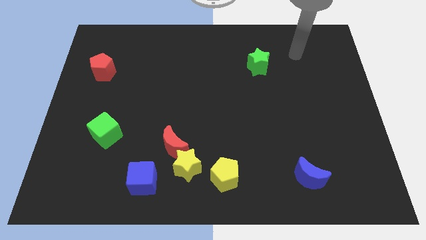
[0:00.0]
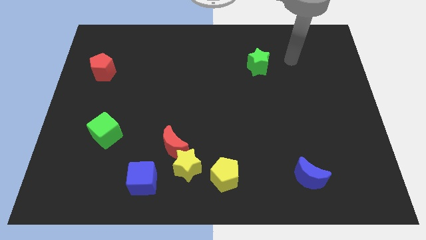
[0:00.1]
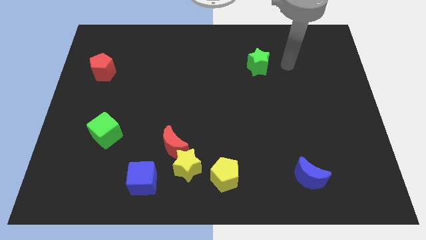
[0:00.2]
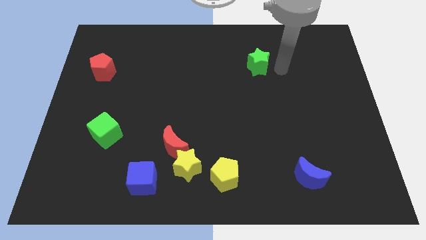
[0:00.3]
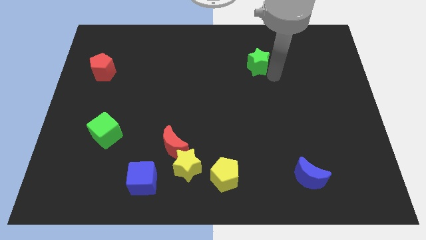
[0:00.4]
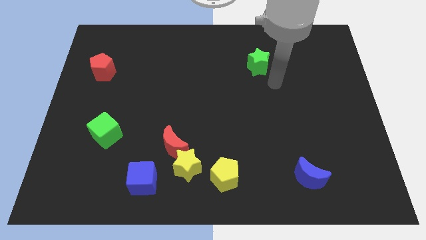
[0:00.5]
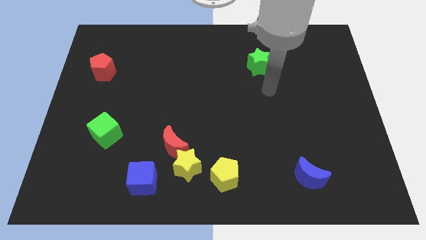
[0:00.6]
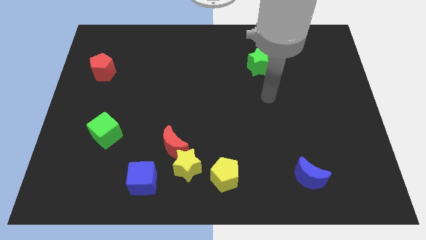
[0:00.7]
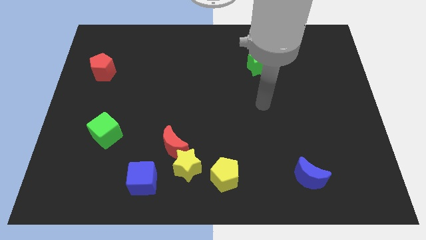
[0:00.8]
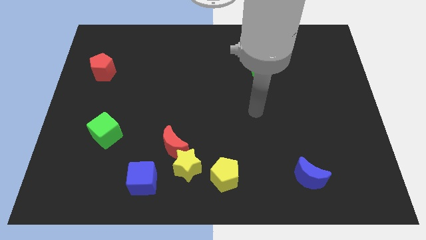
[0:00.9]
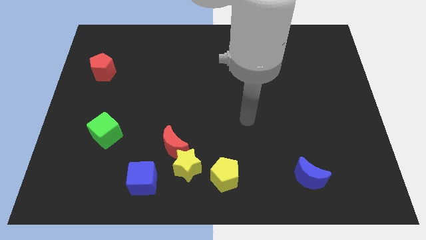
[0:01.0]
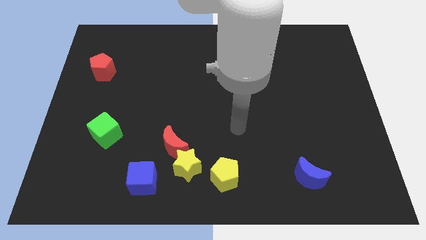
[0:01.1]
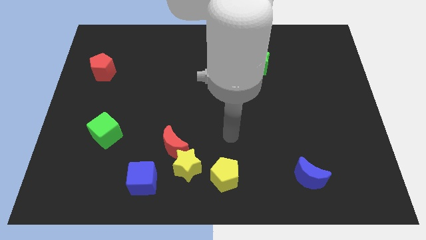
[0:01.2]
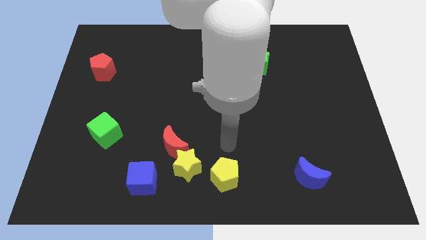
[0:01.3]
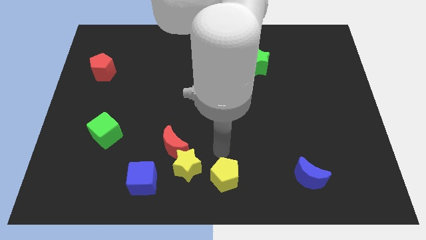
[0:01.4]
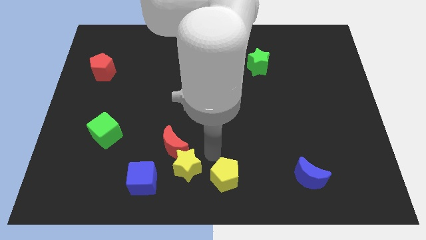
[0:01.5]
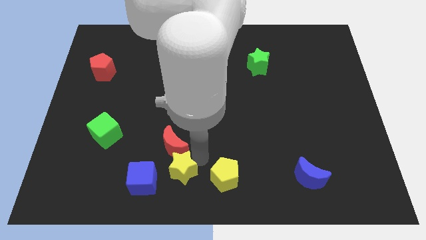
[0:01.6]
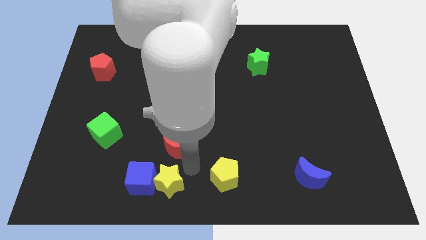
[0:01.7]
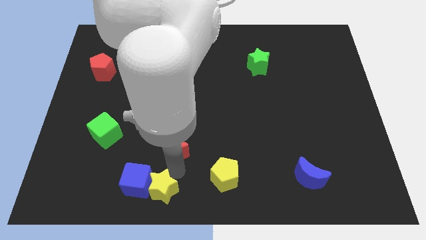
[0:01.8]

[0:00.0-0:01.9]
move the red moon away from the yellow star and blue cube

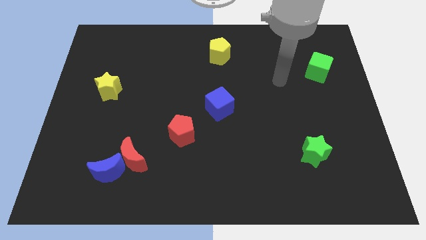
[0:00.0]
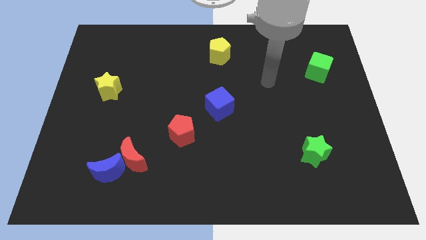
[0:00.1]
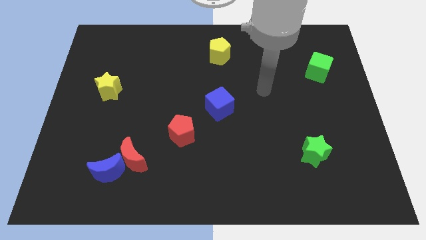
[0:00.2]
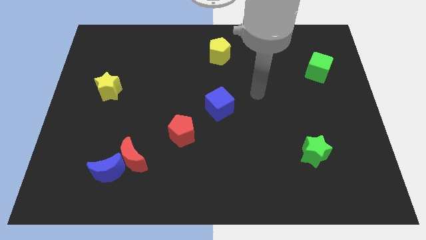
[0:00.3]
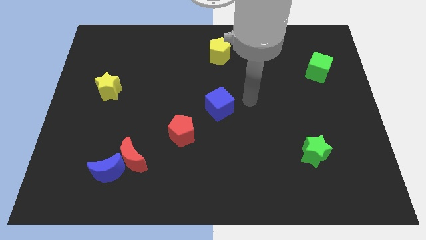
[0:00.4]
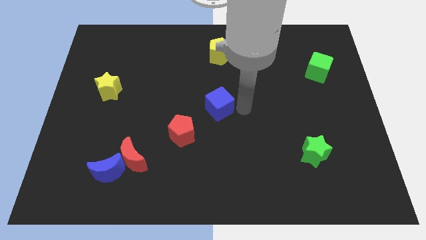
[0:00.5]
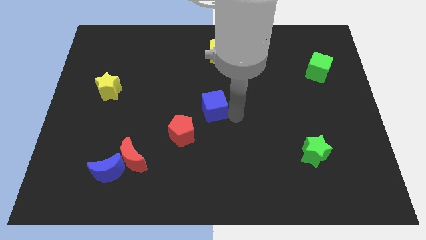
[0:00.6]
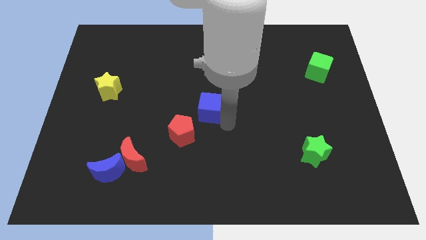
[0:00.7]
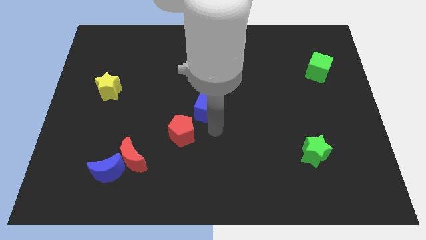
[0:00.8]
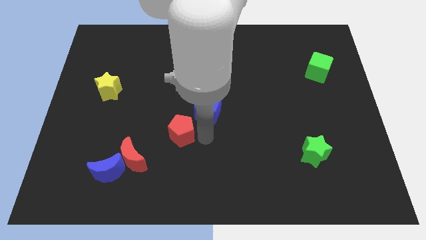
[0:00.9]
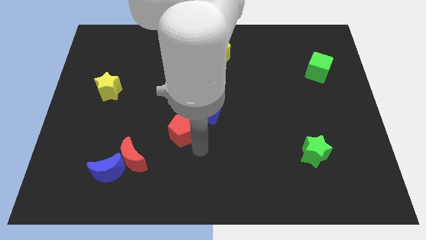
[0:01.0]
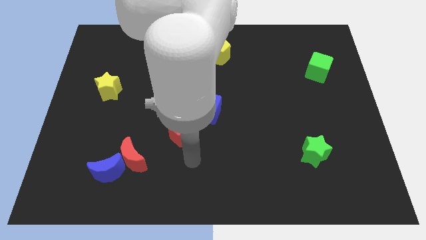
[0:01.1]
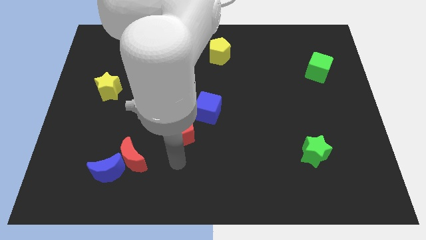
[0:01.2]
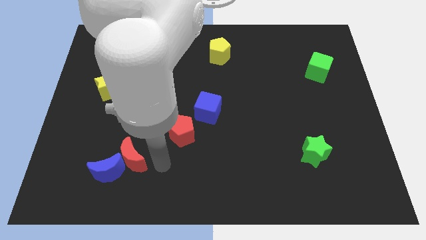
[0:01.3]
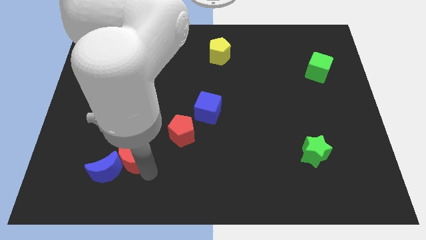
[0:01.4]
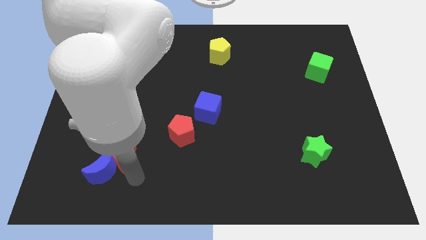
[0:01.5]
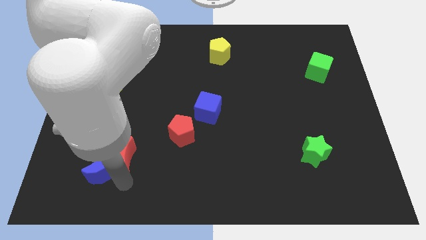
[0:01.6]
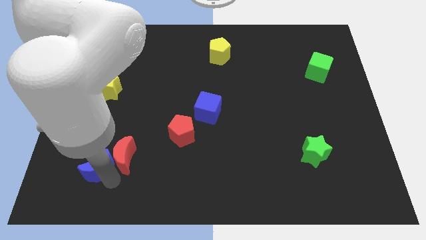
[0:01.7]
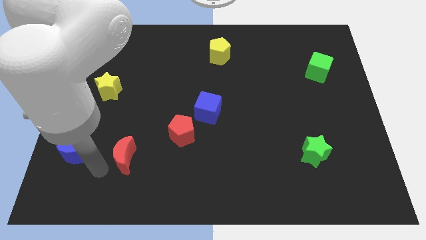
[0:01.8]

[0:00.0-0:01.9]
separate the red moon from the blue moon

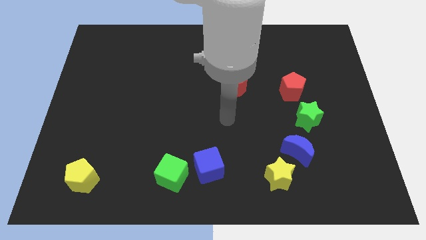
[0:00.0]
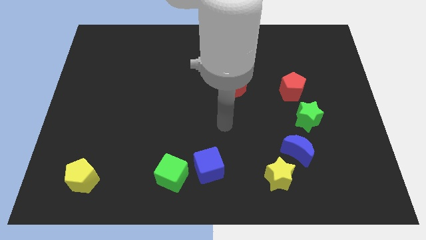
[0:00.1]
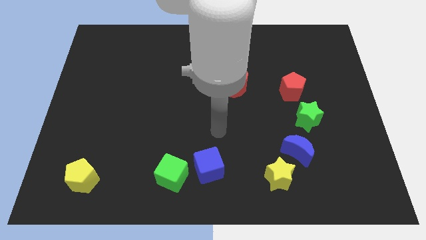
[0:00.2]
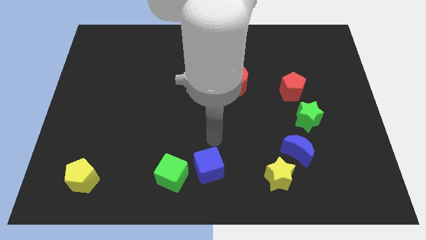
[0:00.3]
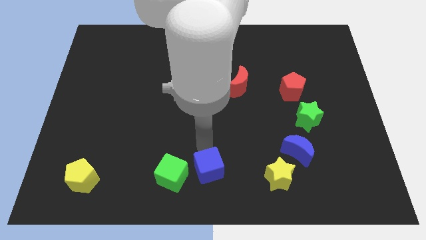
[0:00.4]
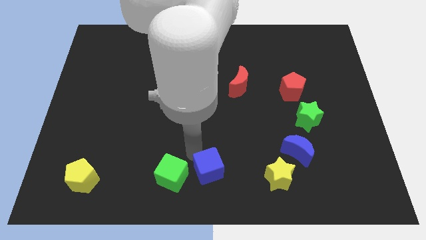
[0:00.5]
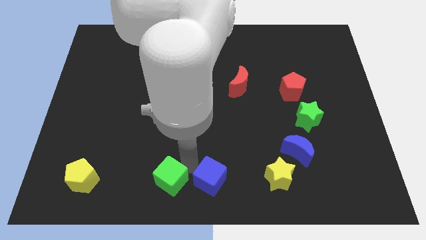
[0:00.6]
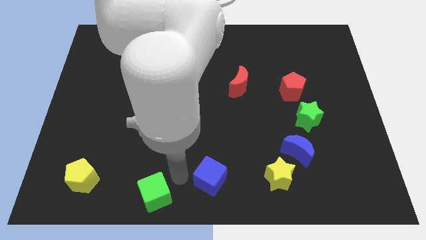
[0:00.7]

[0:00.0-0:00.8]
move the blue cube away from the green cube

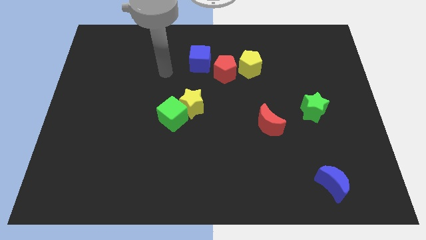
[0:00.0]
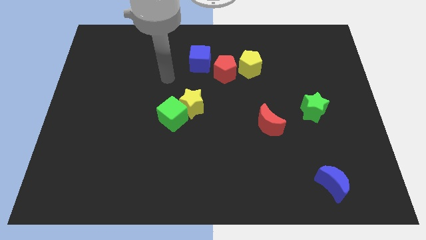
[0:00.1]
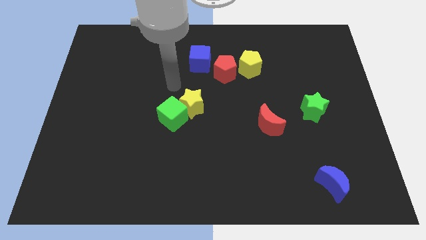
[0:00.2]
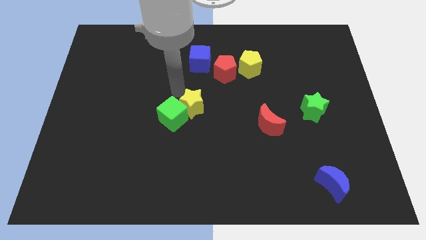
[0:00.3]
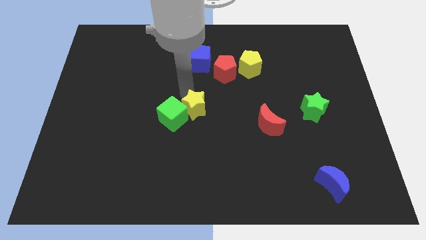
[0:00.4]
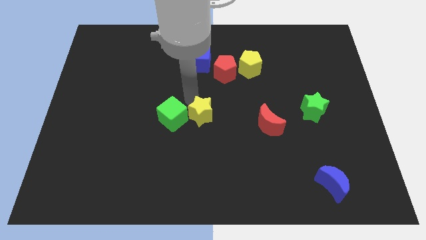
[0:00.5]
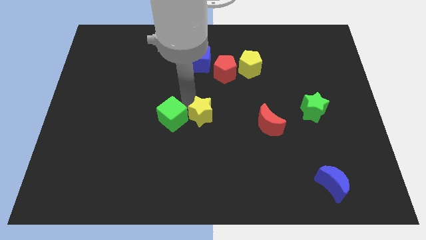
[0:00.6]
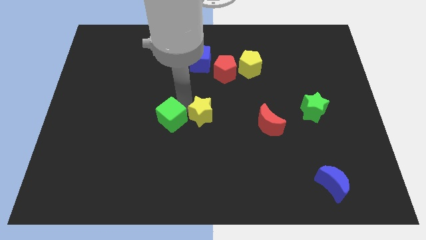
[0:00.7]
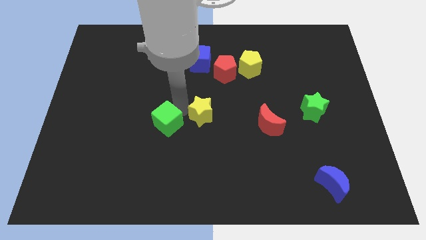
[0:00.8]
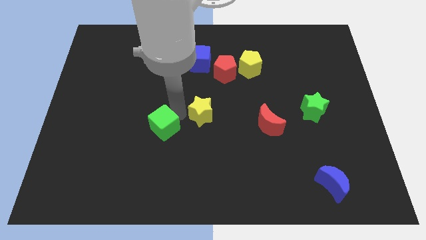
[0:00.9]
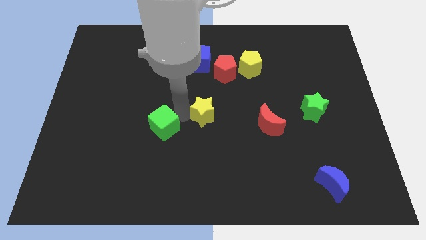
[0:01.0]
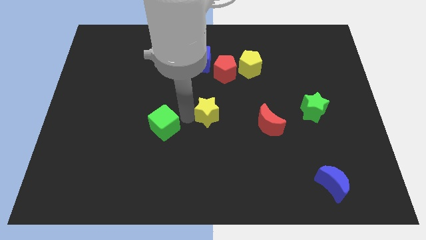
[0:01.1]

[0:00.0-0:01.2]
move the green cube away from the yellow star

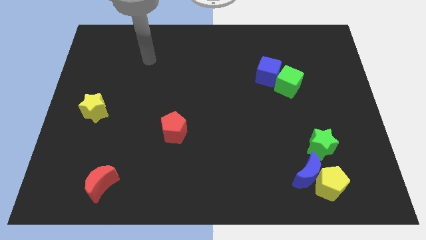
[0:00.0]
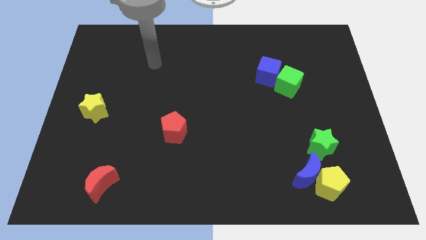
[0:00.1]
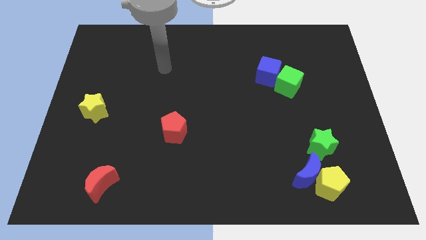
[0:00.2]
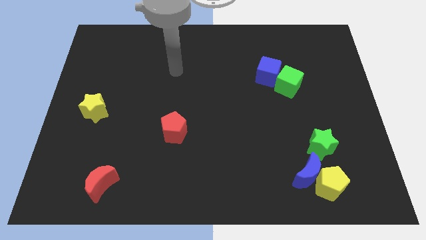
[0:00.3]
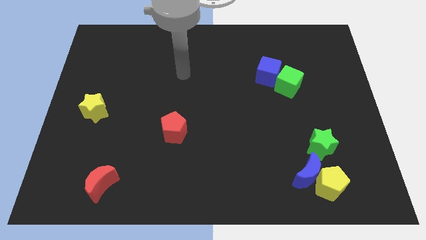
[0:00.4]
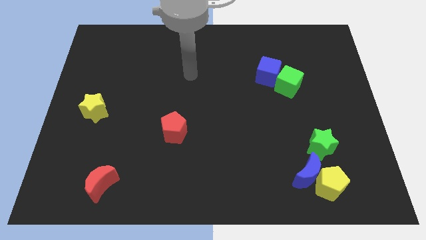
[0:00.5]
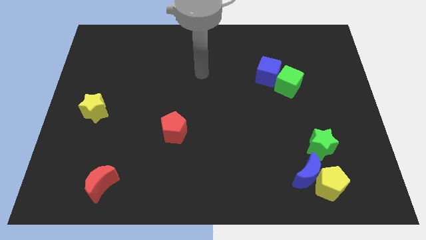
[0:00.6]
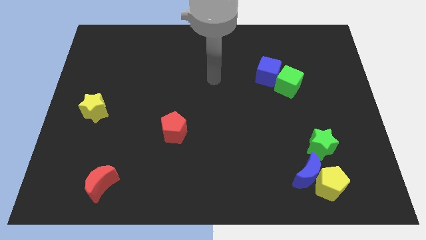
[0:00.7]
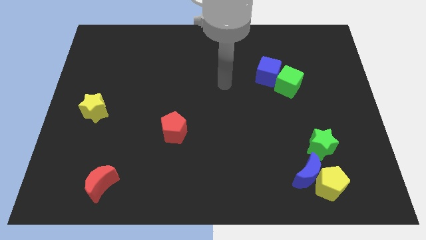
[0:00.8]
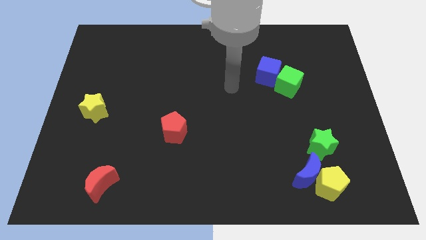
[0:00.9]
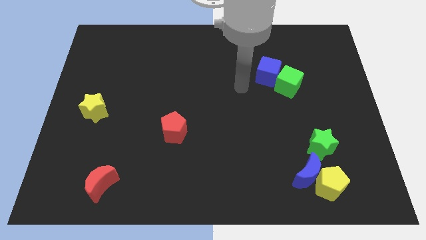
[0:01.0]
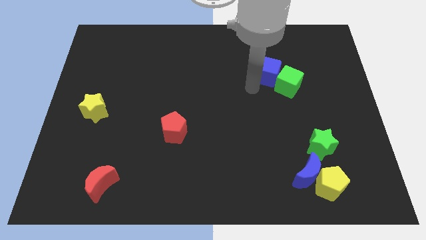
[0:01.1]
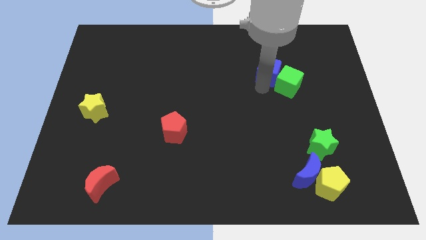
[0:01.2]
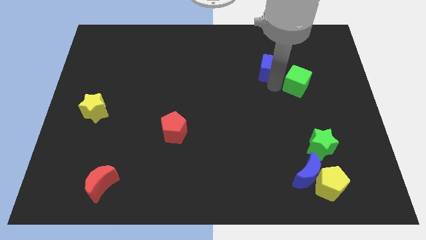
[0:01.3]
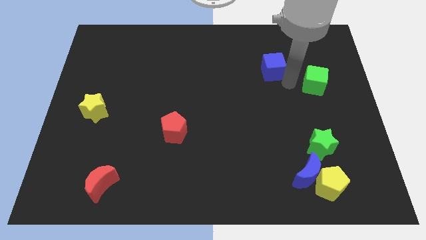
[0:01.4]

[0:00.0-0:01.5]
separate the blue cube from the green cube

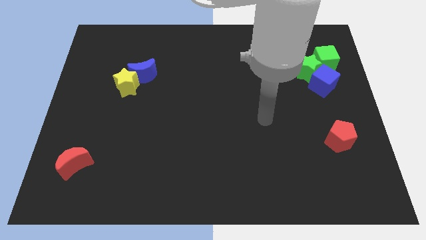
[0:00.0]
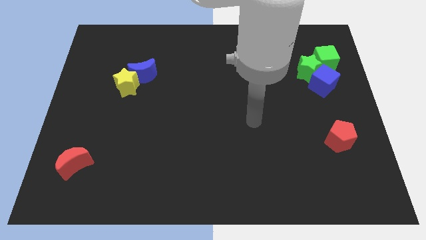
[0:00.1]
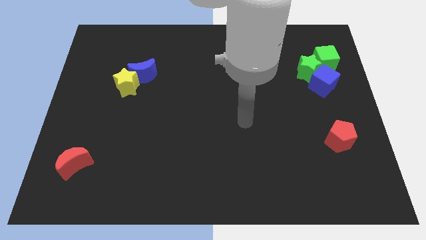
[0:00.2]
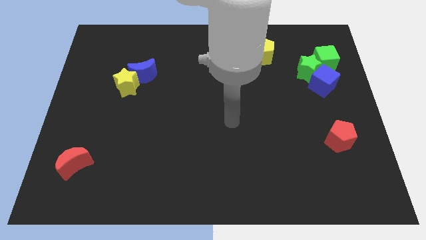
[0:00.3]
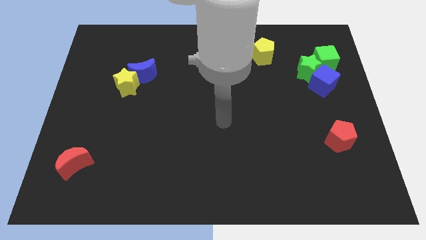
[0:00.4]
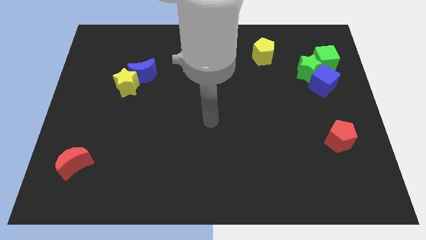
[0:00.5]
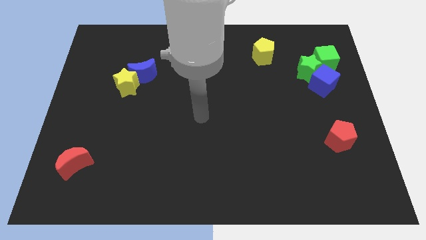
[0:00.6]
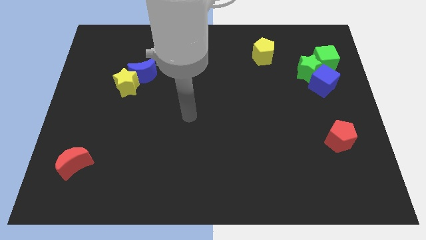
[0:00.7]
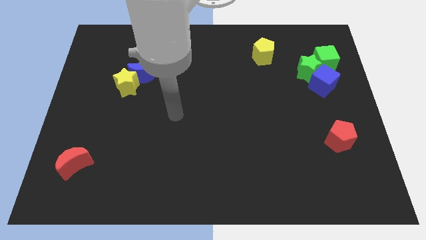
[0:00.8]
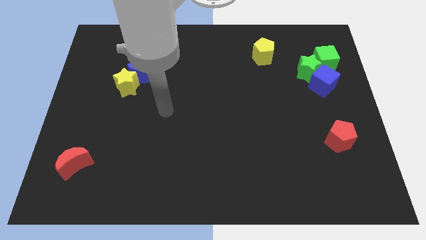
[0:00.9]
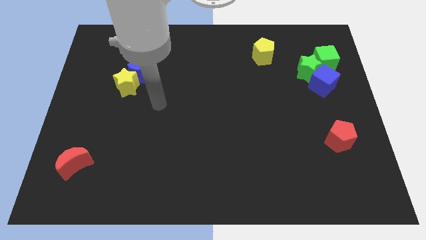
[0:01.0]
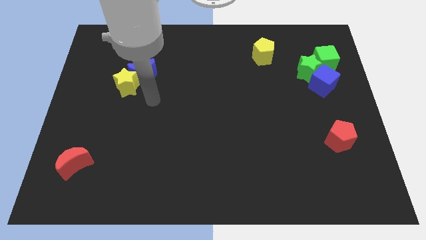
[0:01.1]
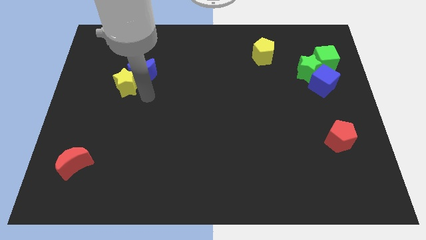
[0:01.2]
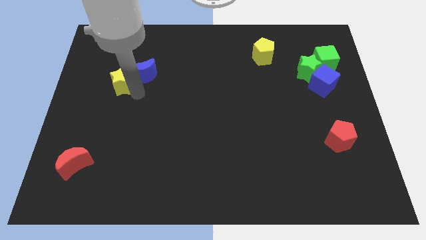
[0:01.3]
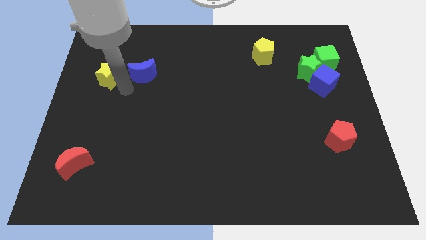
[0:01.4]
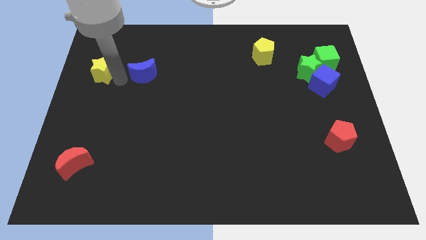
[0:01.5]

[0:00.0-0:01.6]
separate the blue moon from the yellow star

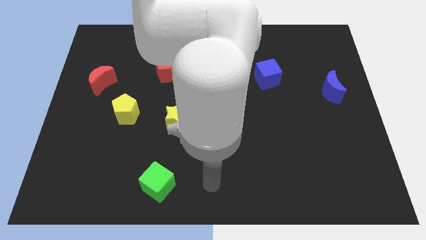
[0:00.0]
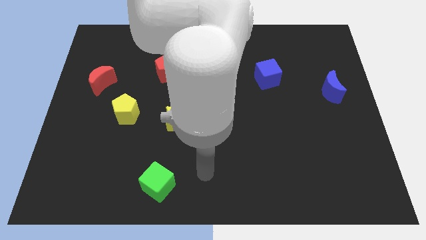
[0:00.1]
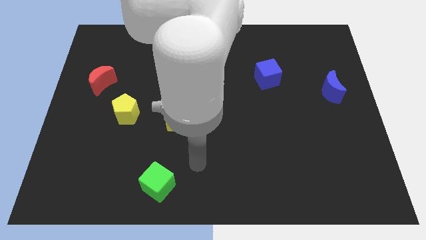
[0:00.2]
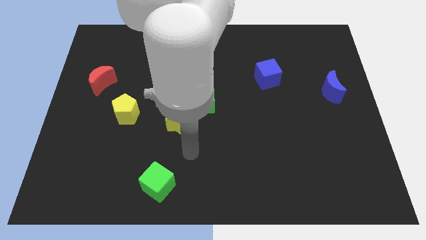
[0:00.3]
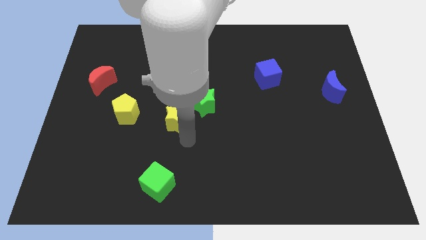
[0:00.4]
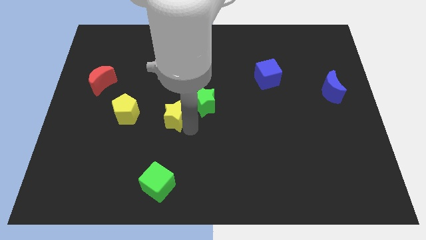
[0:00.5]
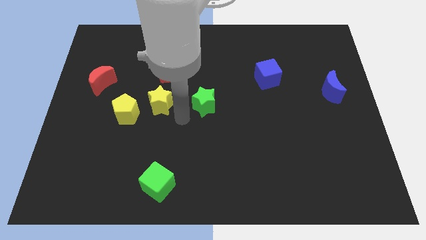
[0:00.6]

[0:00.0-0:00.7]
move the green star away from the yellow star
